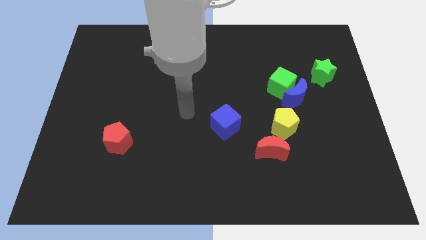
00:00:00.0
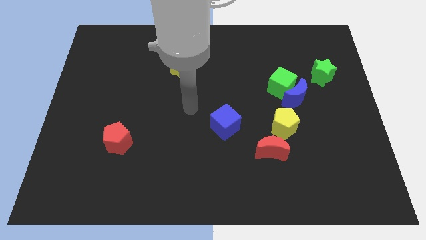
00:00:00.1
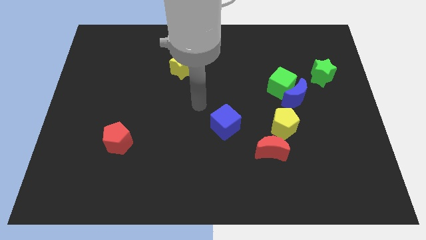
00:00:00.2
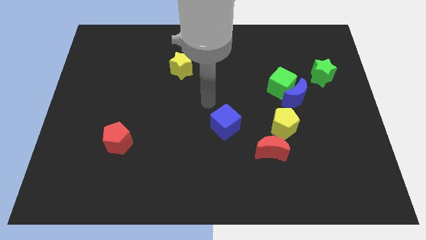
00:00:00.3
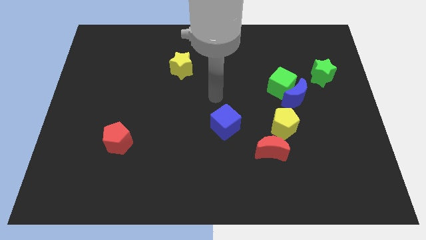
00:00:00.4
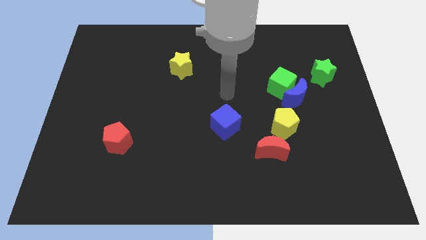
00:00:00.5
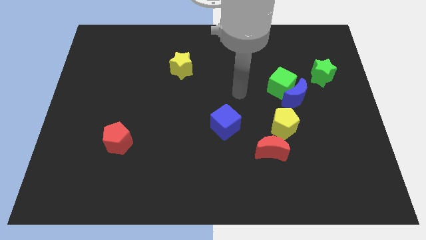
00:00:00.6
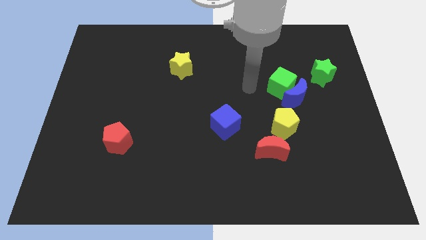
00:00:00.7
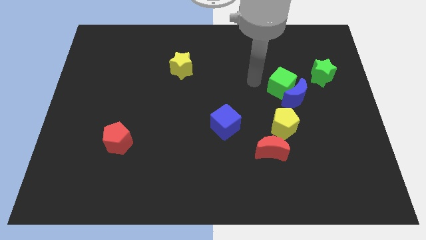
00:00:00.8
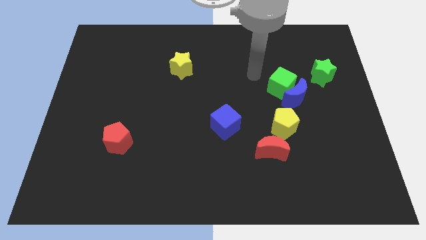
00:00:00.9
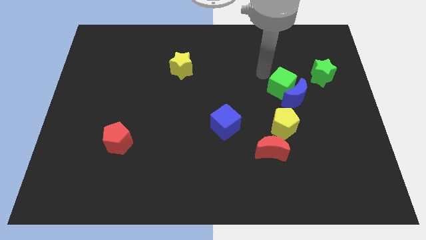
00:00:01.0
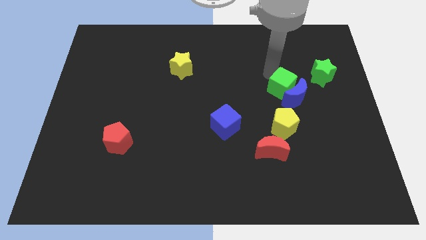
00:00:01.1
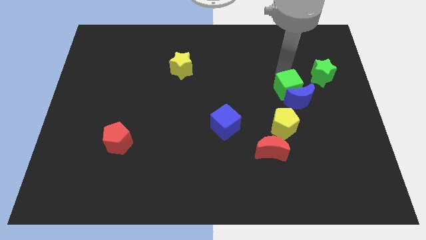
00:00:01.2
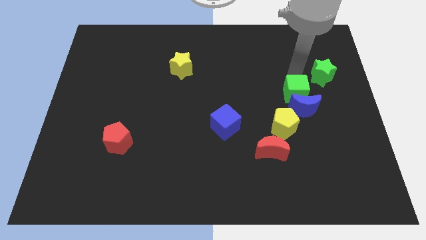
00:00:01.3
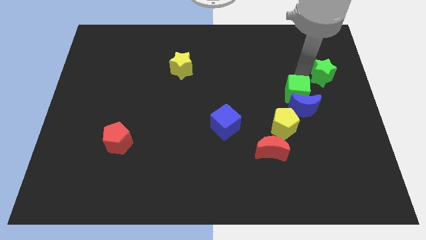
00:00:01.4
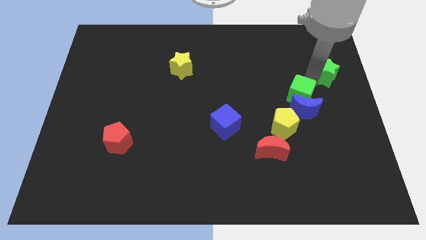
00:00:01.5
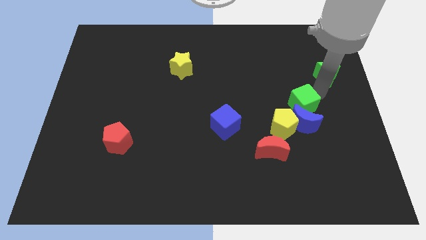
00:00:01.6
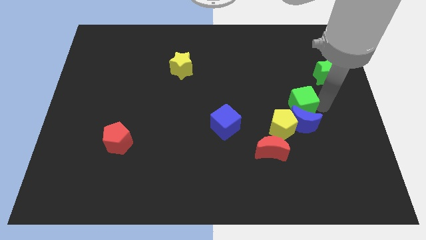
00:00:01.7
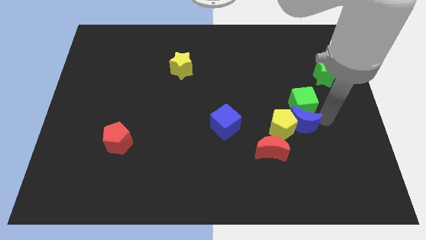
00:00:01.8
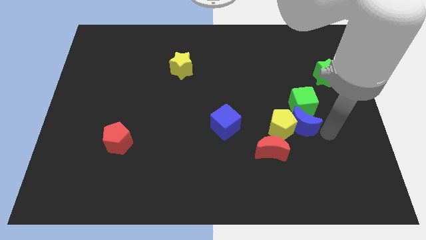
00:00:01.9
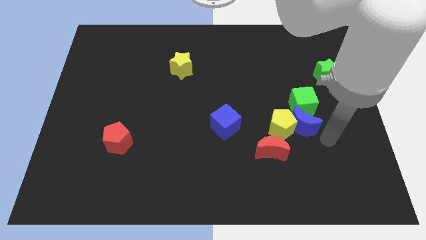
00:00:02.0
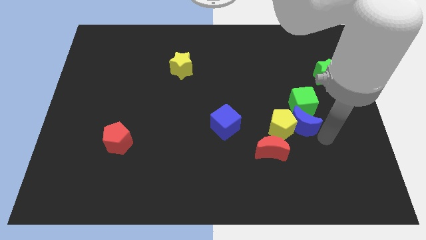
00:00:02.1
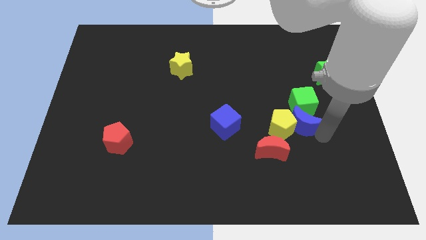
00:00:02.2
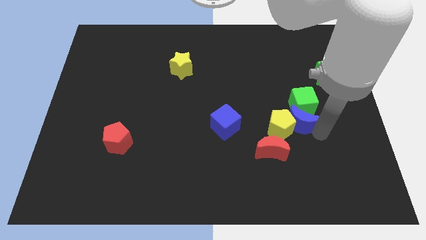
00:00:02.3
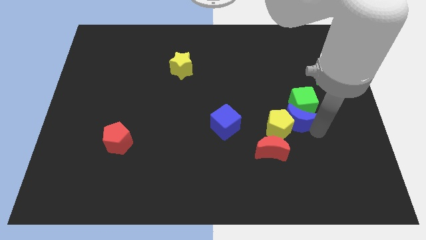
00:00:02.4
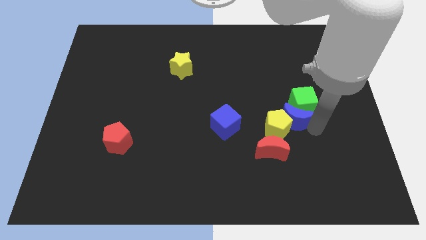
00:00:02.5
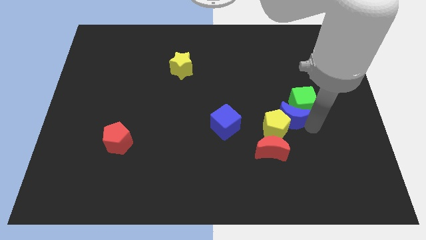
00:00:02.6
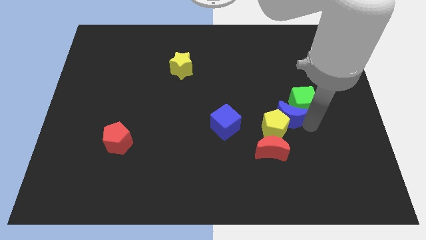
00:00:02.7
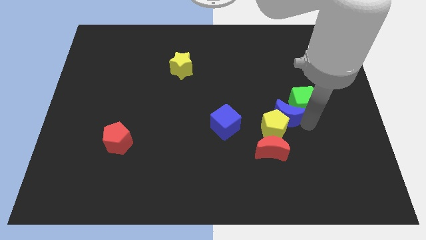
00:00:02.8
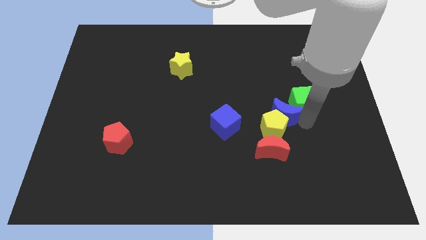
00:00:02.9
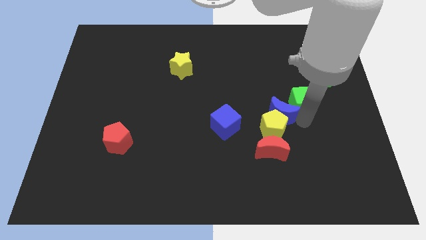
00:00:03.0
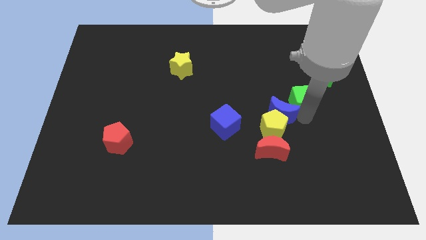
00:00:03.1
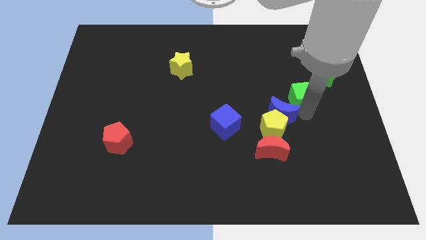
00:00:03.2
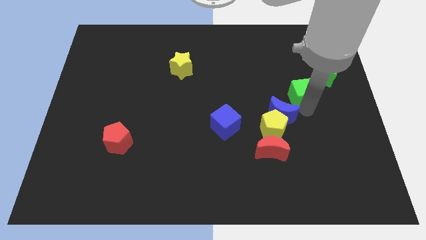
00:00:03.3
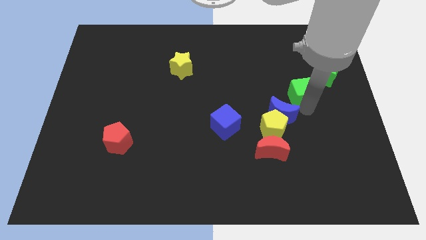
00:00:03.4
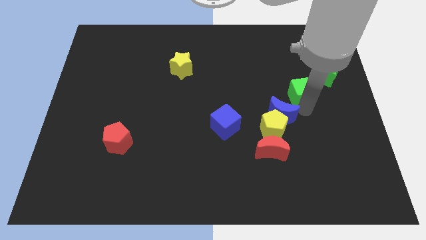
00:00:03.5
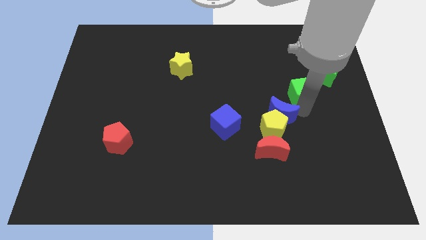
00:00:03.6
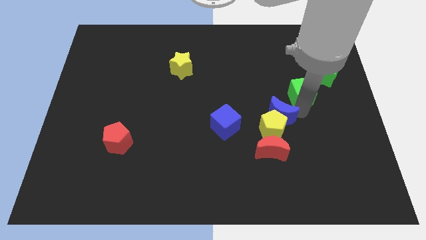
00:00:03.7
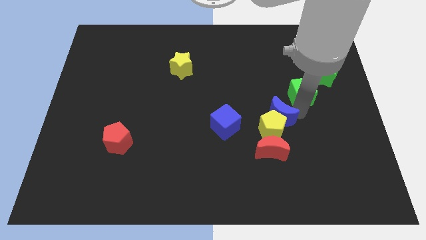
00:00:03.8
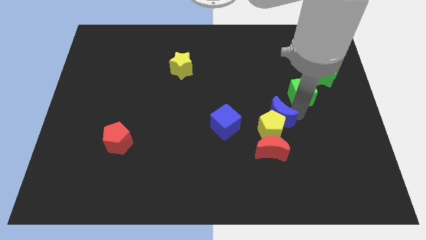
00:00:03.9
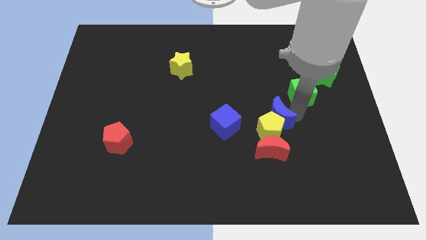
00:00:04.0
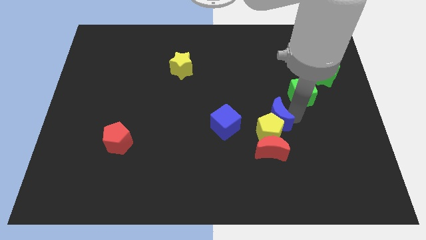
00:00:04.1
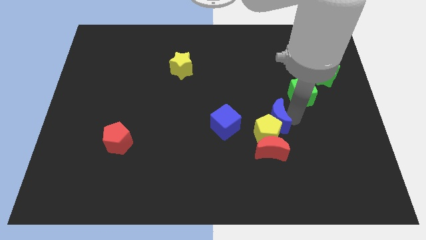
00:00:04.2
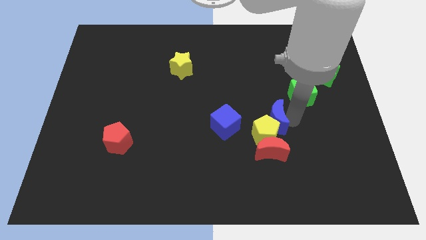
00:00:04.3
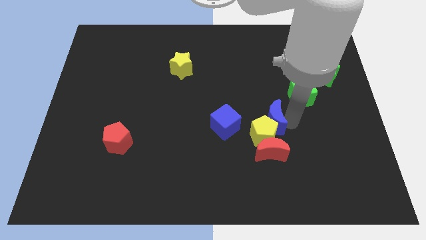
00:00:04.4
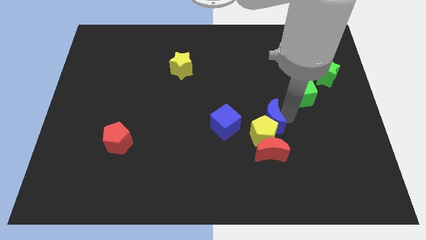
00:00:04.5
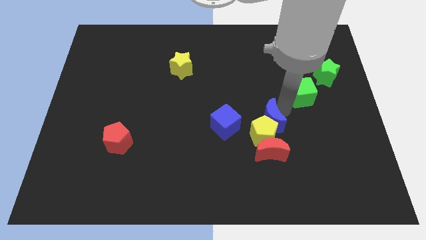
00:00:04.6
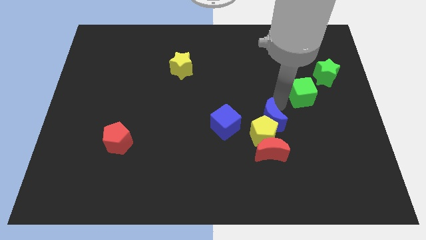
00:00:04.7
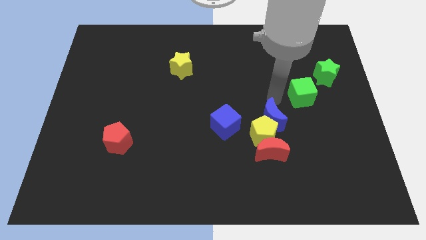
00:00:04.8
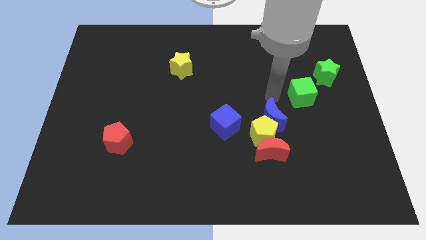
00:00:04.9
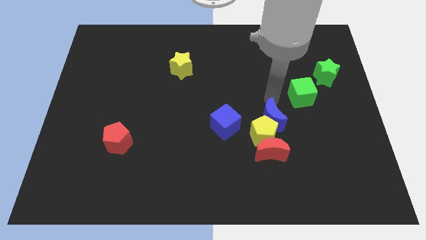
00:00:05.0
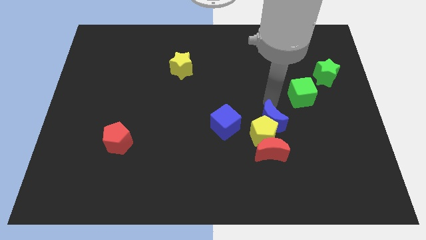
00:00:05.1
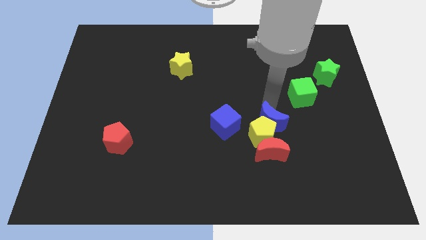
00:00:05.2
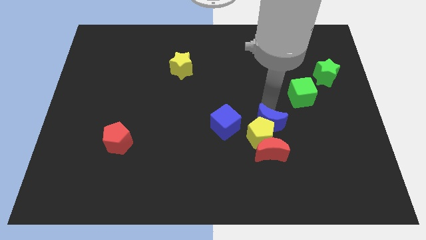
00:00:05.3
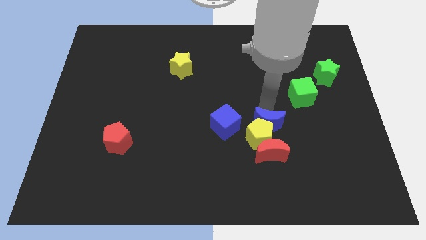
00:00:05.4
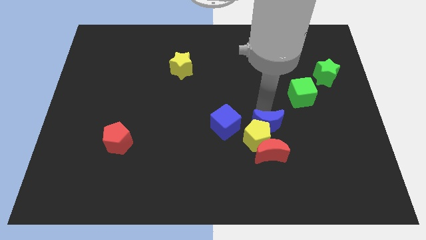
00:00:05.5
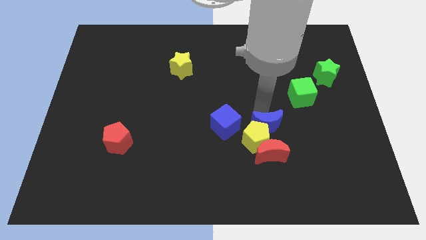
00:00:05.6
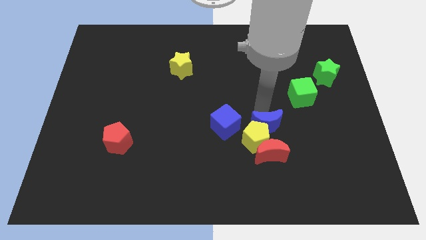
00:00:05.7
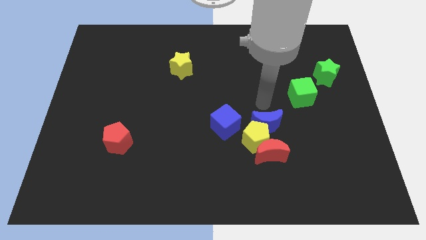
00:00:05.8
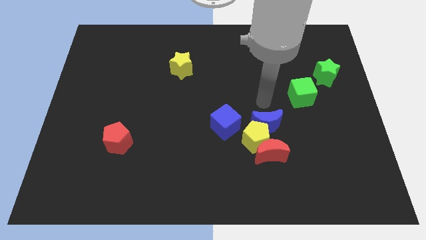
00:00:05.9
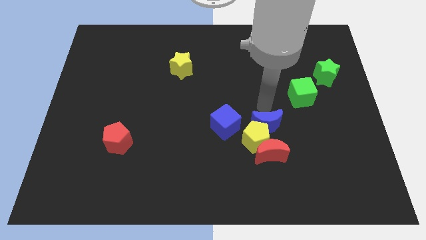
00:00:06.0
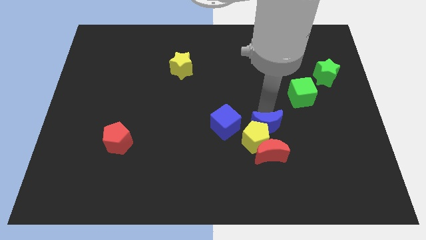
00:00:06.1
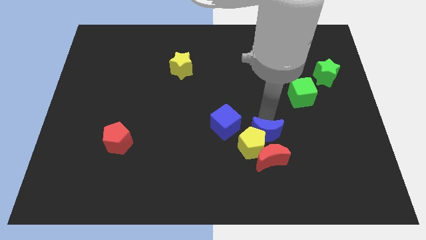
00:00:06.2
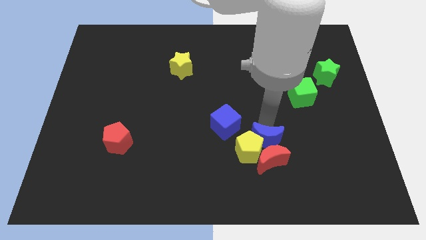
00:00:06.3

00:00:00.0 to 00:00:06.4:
push the blue moon next to the red moon

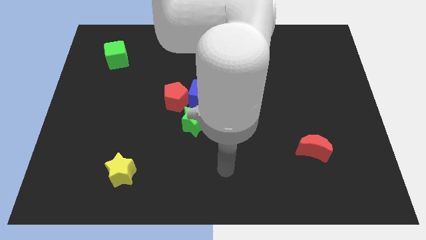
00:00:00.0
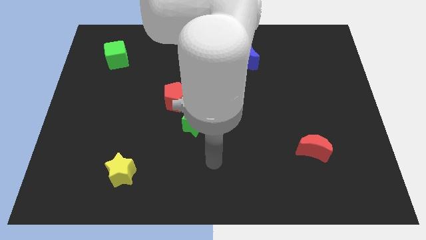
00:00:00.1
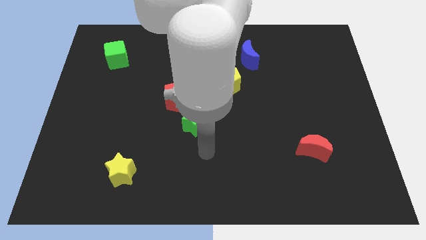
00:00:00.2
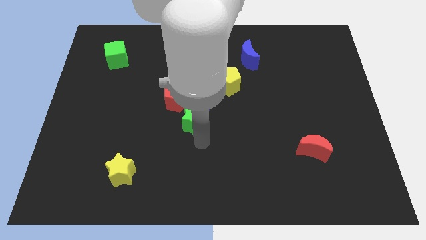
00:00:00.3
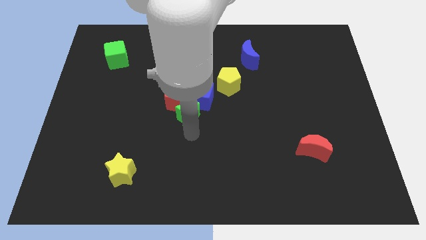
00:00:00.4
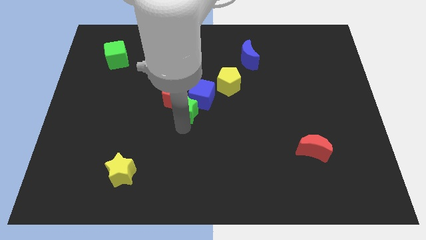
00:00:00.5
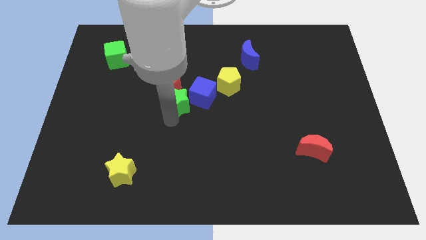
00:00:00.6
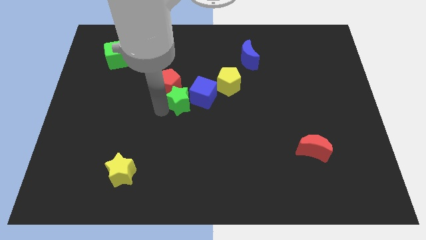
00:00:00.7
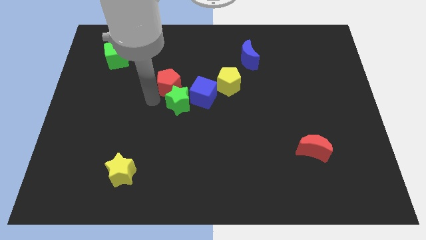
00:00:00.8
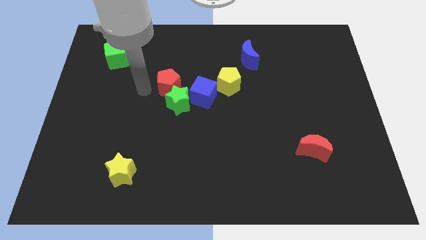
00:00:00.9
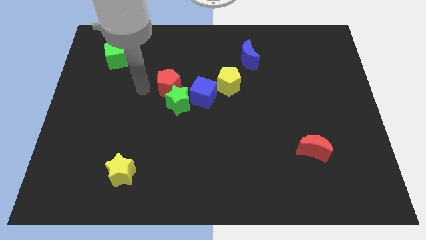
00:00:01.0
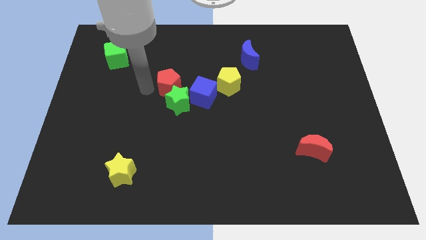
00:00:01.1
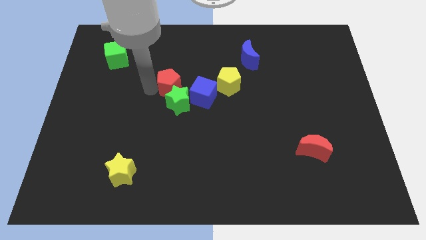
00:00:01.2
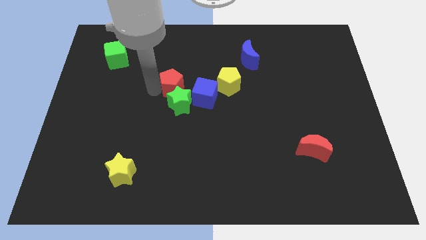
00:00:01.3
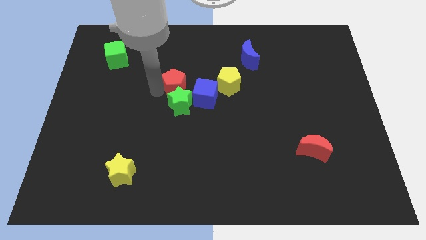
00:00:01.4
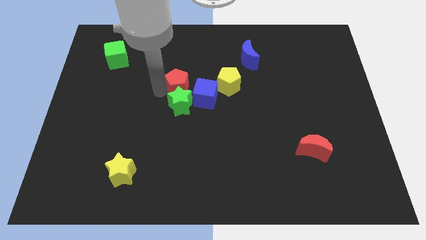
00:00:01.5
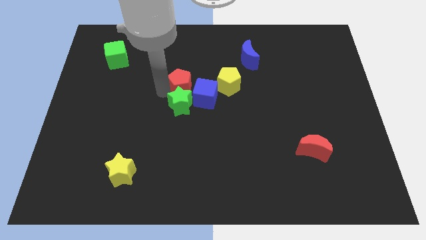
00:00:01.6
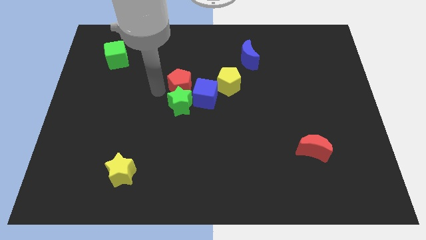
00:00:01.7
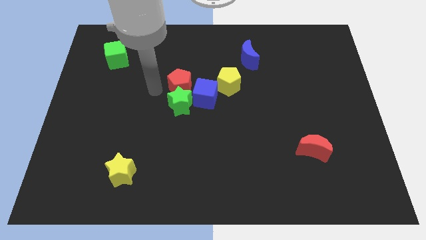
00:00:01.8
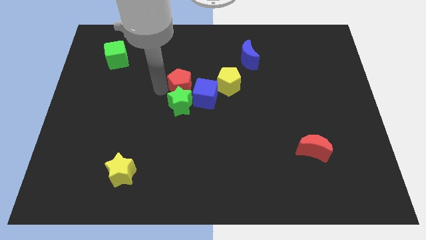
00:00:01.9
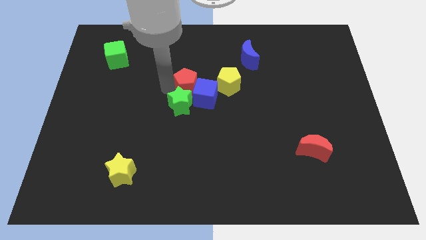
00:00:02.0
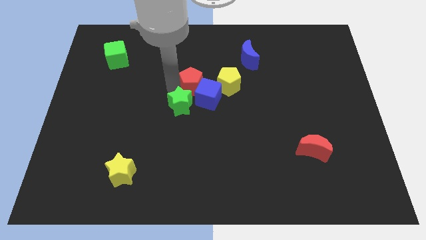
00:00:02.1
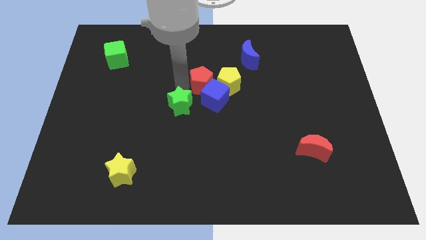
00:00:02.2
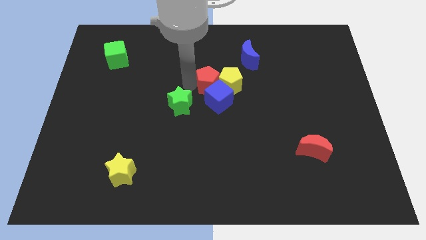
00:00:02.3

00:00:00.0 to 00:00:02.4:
put the red pentagon next to the yellow pentagon
